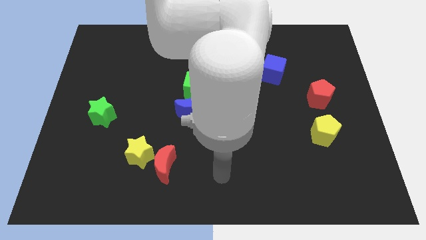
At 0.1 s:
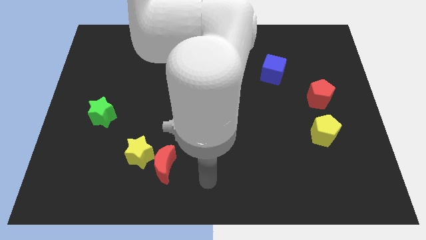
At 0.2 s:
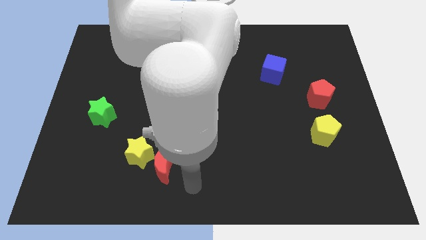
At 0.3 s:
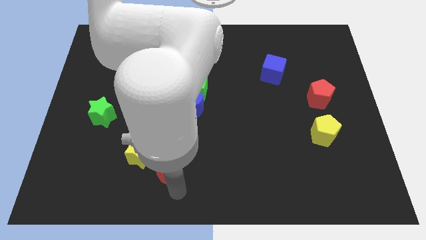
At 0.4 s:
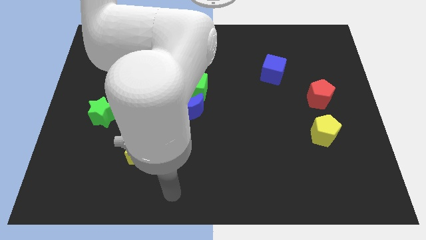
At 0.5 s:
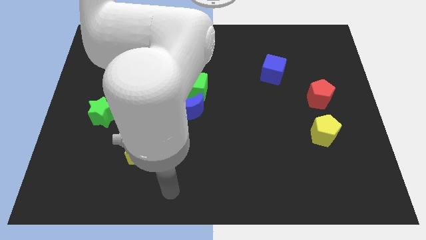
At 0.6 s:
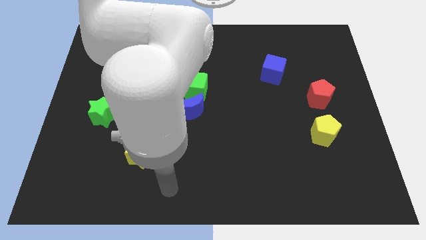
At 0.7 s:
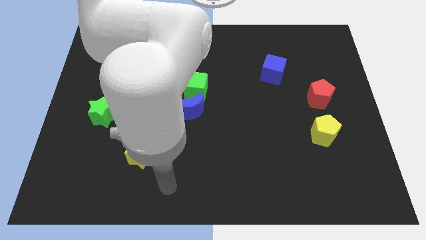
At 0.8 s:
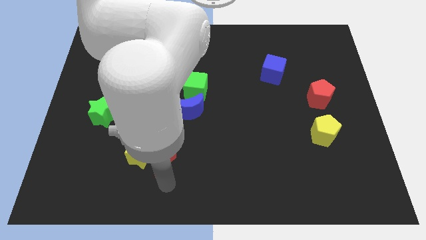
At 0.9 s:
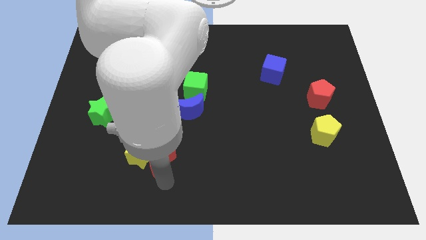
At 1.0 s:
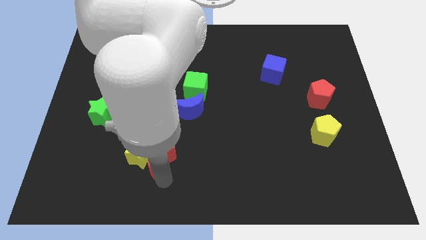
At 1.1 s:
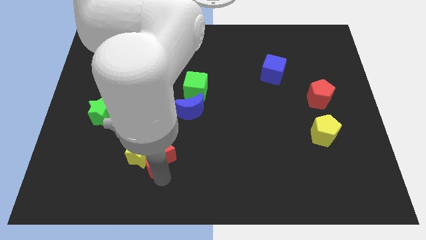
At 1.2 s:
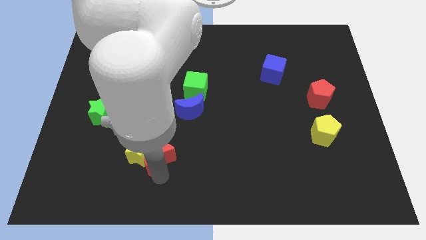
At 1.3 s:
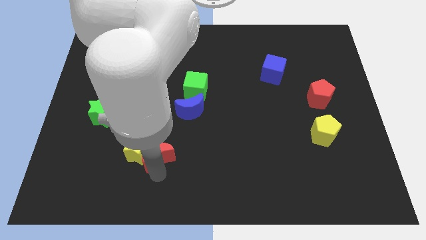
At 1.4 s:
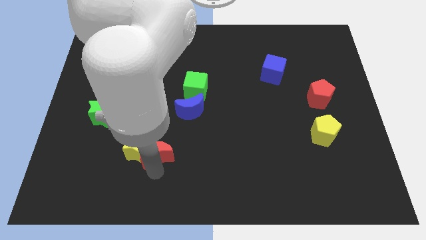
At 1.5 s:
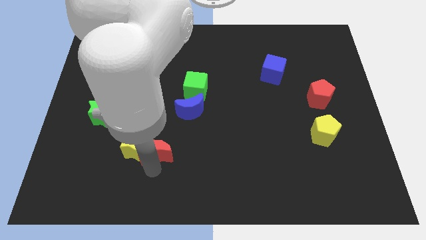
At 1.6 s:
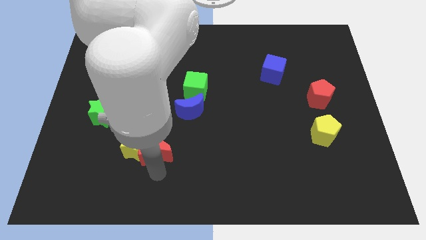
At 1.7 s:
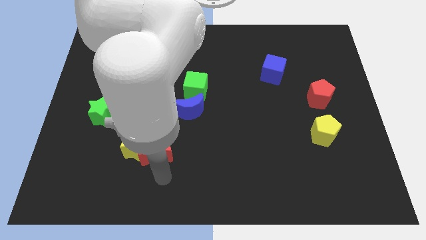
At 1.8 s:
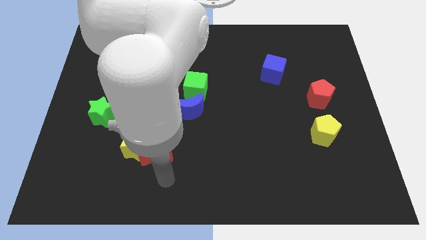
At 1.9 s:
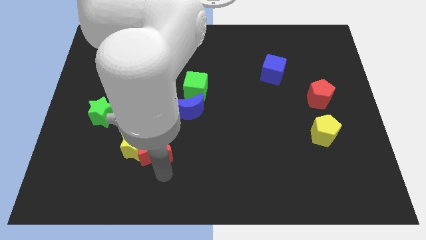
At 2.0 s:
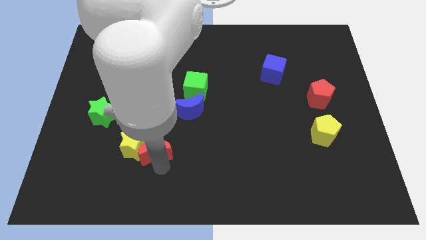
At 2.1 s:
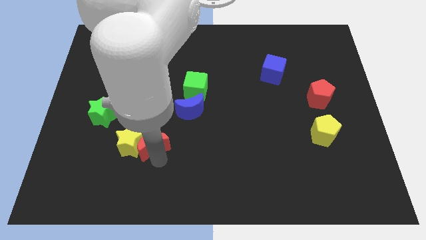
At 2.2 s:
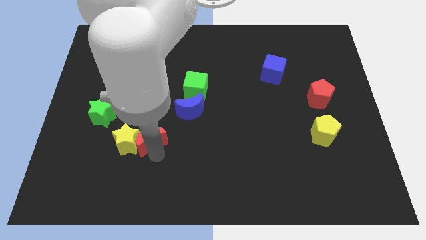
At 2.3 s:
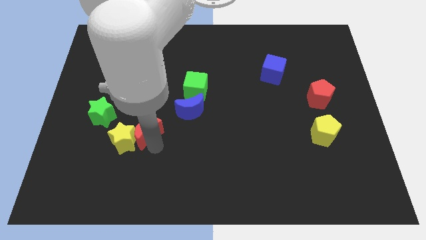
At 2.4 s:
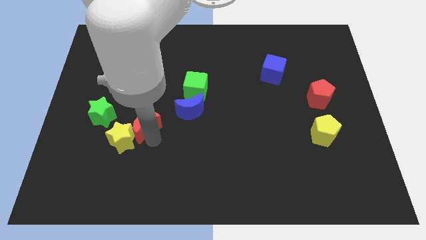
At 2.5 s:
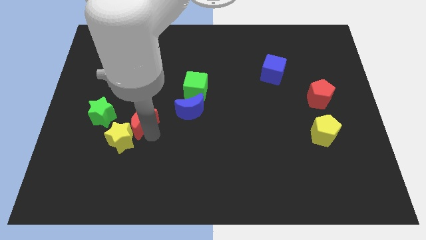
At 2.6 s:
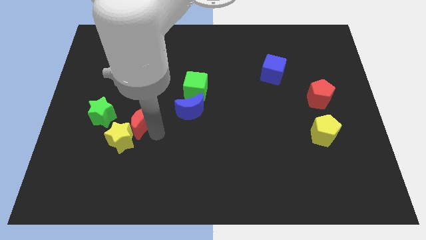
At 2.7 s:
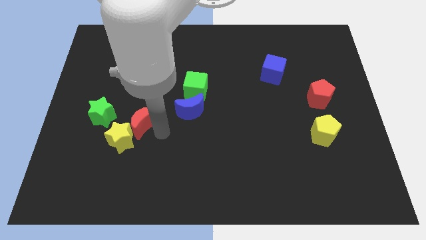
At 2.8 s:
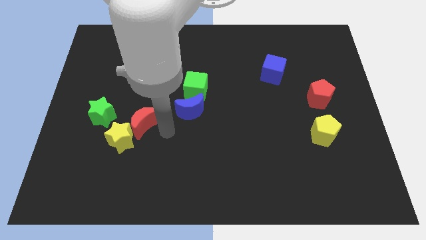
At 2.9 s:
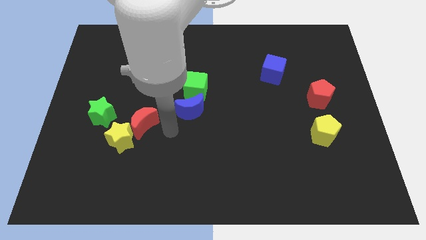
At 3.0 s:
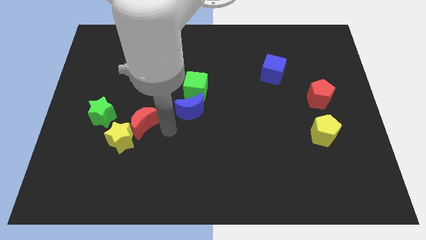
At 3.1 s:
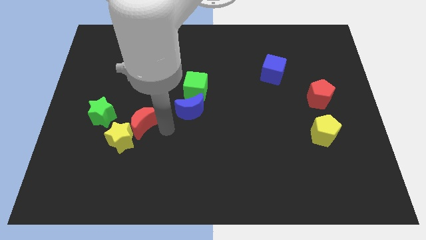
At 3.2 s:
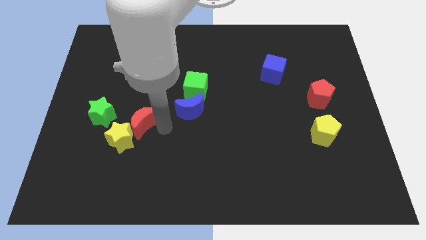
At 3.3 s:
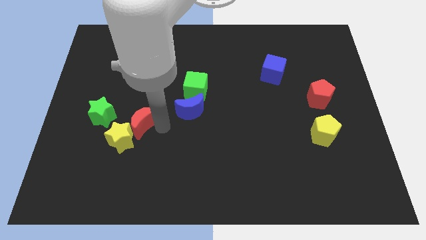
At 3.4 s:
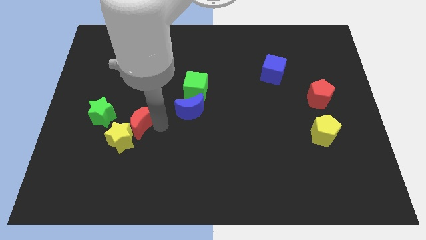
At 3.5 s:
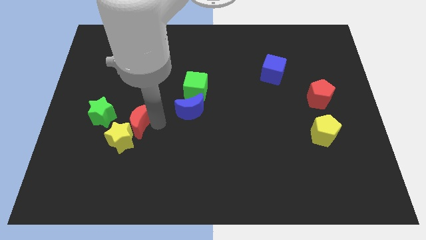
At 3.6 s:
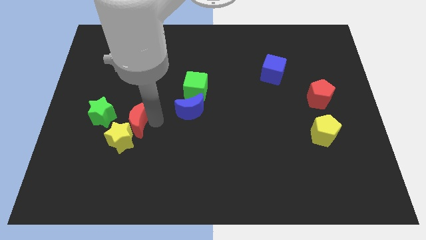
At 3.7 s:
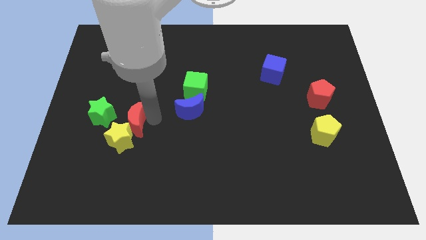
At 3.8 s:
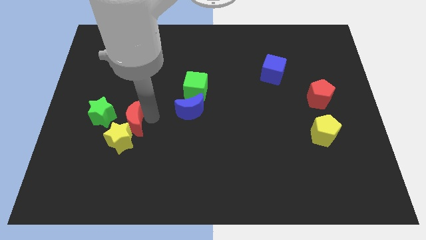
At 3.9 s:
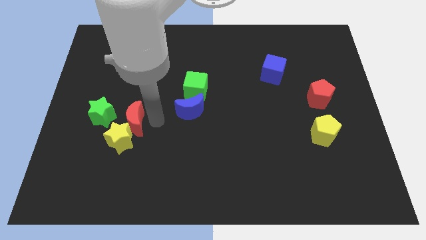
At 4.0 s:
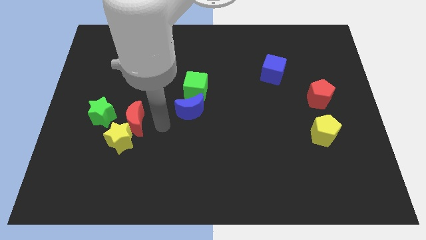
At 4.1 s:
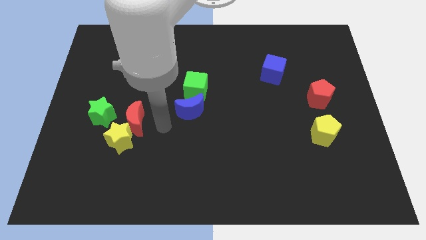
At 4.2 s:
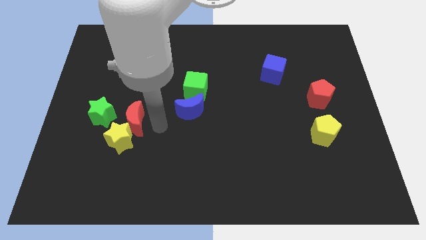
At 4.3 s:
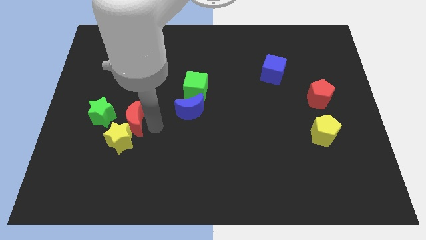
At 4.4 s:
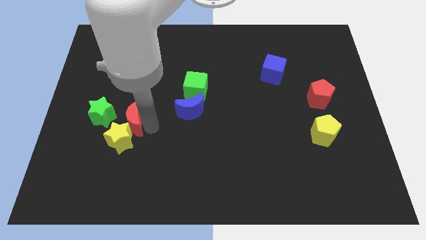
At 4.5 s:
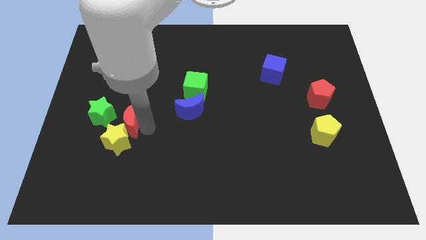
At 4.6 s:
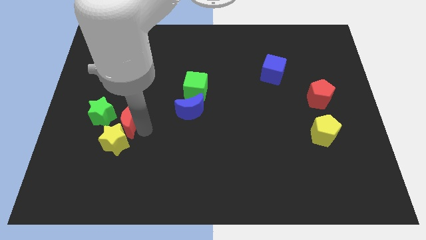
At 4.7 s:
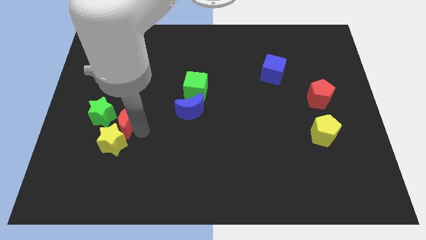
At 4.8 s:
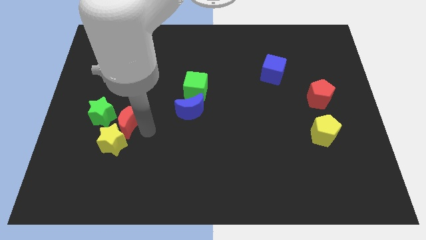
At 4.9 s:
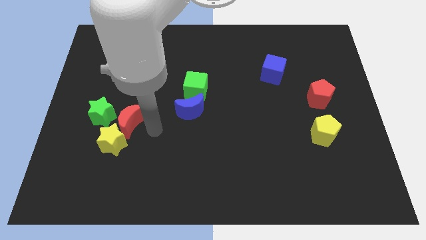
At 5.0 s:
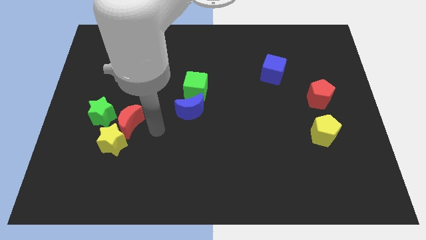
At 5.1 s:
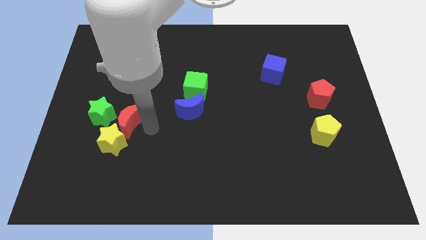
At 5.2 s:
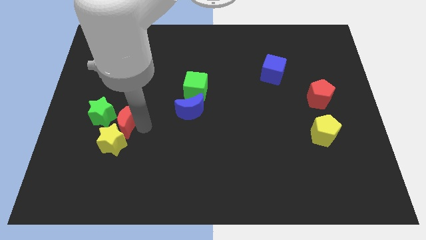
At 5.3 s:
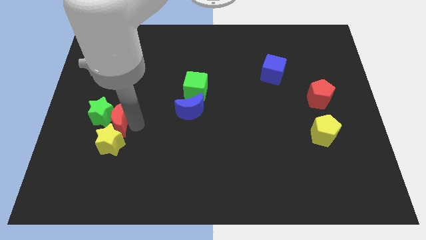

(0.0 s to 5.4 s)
slide the red moon close to the green star

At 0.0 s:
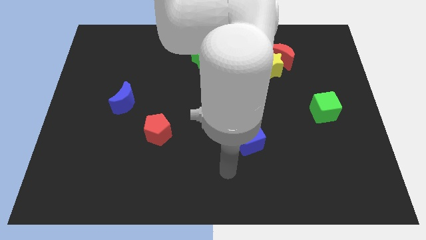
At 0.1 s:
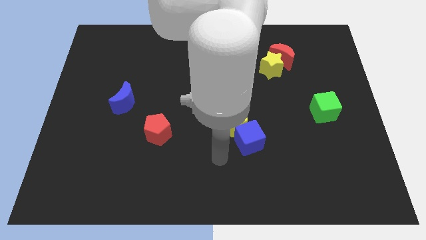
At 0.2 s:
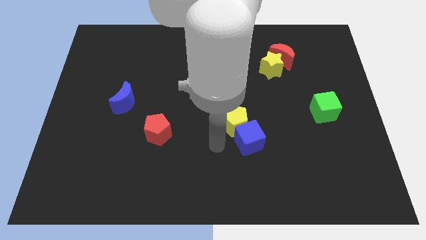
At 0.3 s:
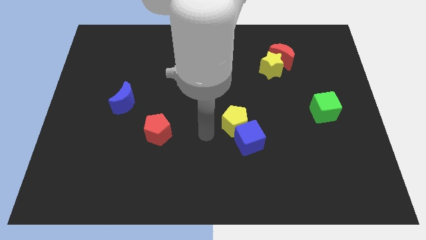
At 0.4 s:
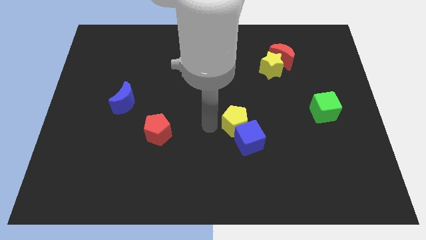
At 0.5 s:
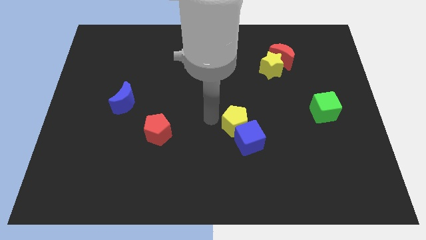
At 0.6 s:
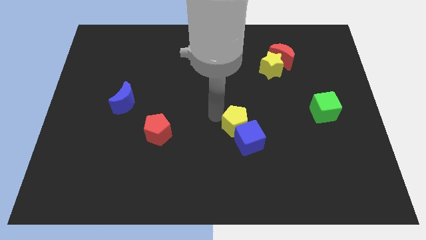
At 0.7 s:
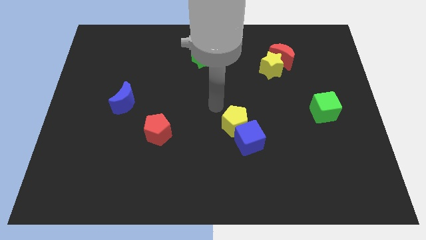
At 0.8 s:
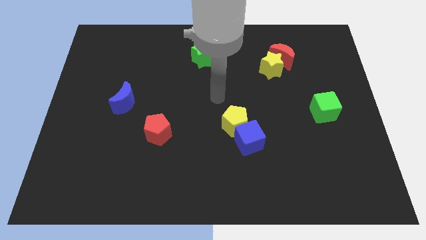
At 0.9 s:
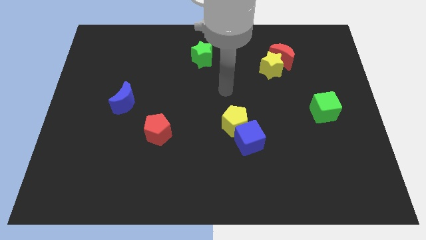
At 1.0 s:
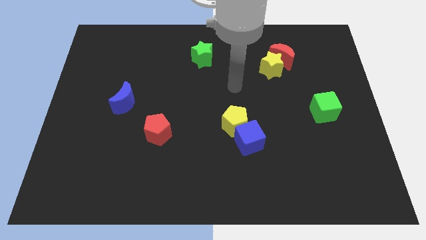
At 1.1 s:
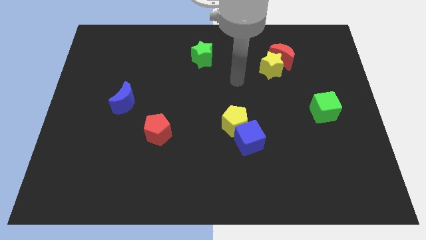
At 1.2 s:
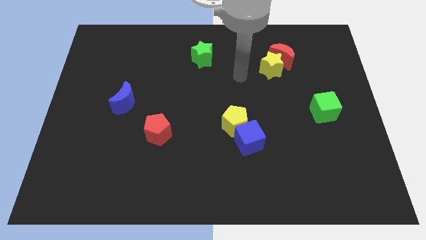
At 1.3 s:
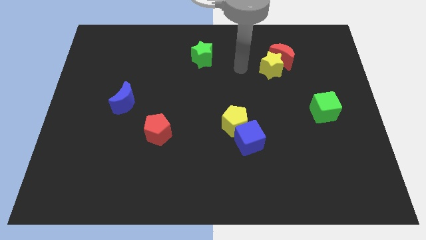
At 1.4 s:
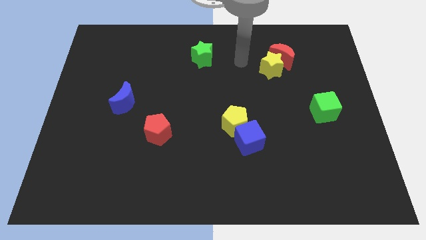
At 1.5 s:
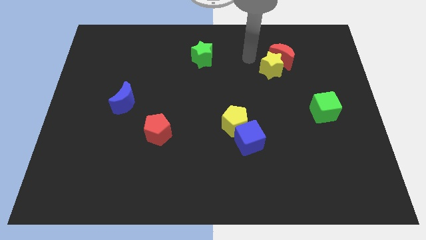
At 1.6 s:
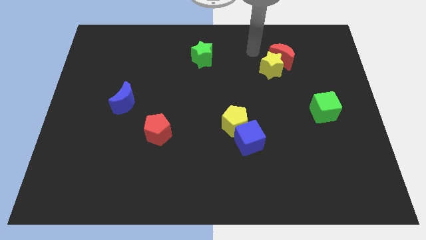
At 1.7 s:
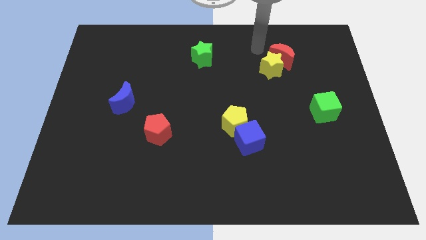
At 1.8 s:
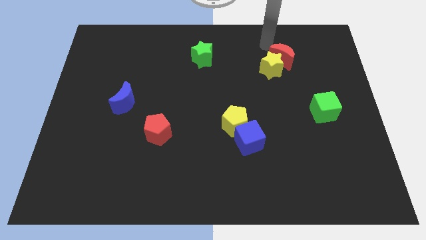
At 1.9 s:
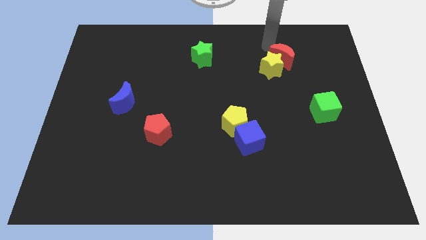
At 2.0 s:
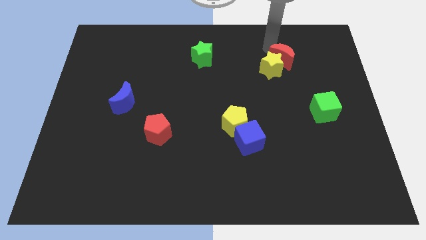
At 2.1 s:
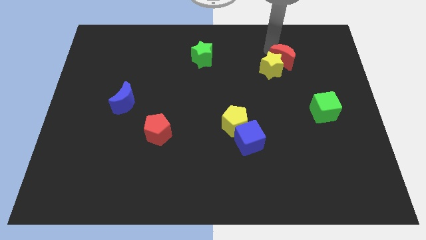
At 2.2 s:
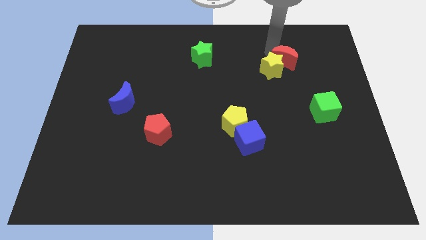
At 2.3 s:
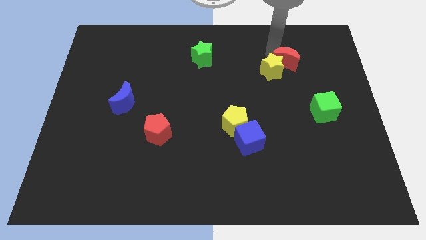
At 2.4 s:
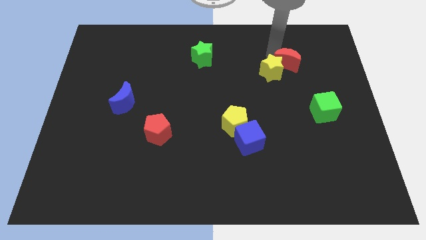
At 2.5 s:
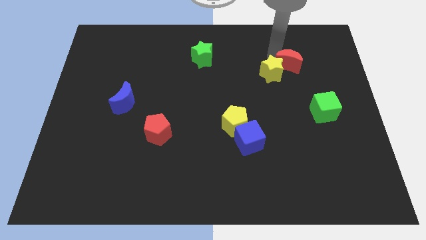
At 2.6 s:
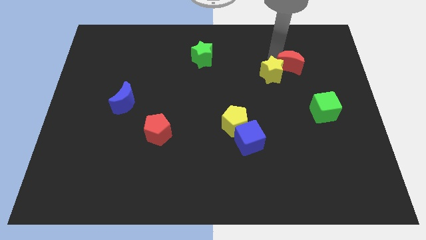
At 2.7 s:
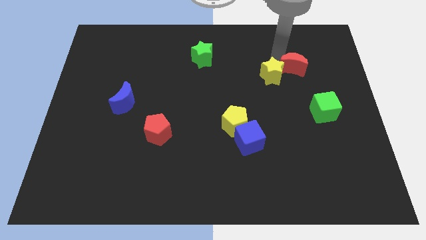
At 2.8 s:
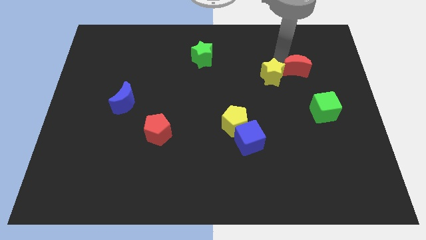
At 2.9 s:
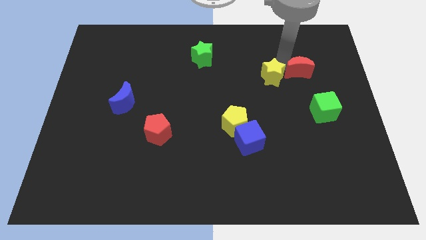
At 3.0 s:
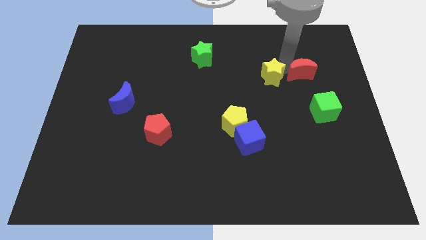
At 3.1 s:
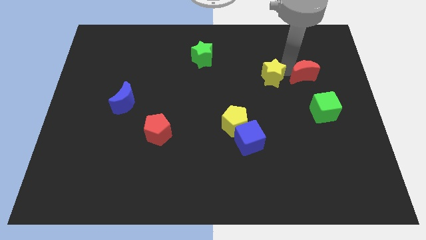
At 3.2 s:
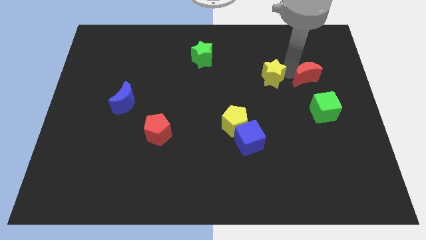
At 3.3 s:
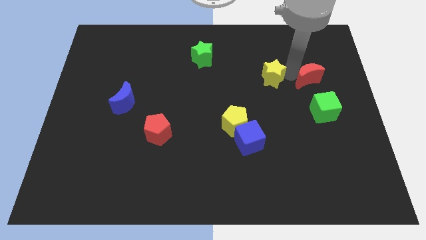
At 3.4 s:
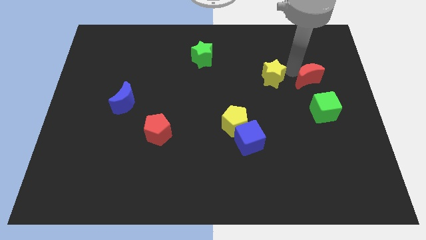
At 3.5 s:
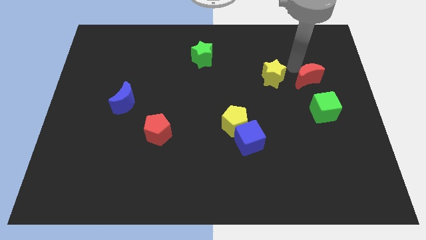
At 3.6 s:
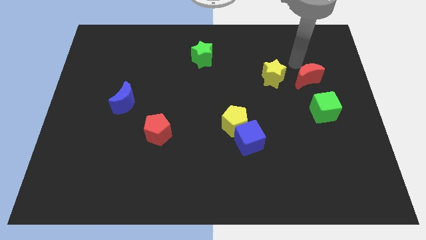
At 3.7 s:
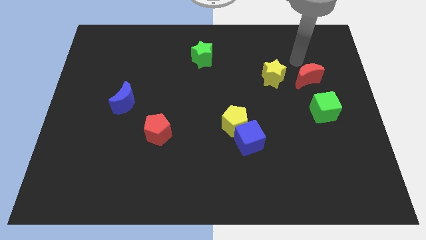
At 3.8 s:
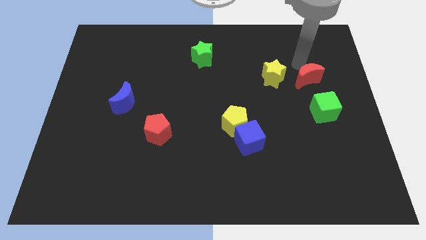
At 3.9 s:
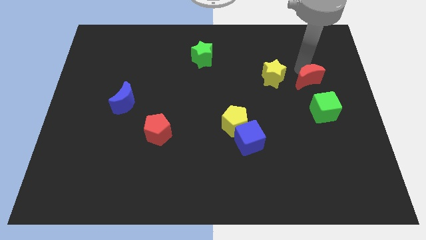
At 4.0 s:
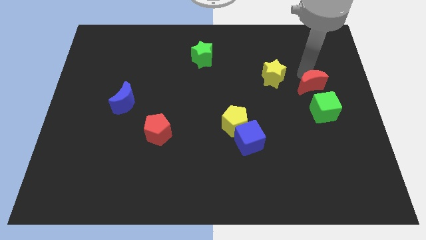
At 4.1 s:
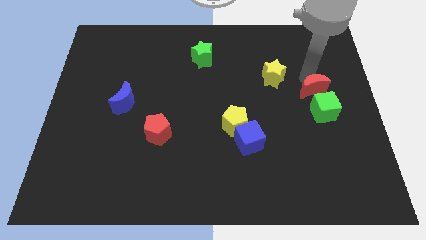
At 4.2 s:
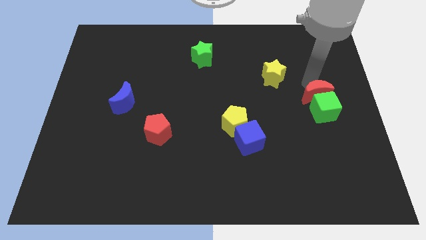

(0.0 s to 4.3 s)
move the red moon towards the green cube
